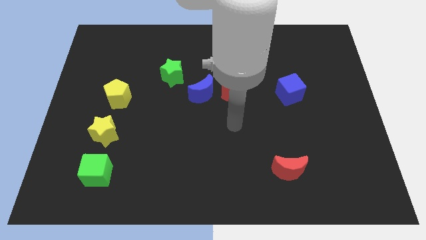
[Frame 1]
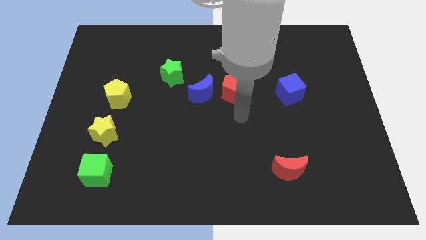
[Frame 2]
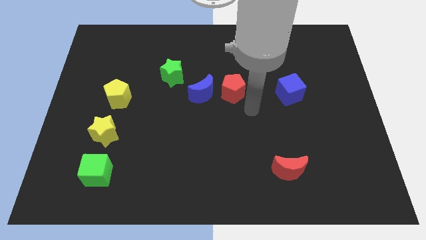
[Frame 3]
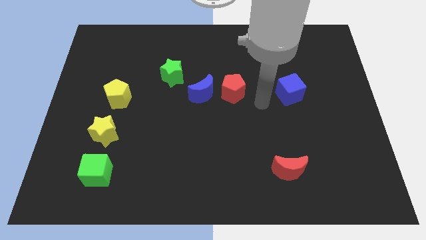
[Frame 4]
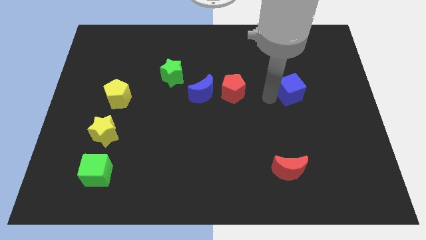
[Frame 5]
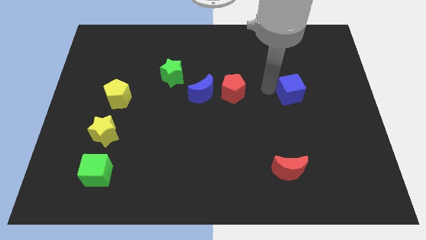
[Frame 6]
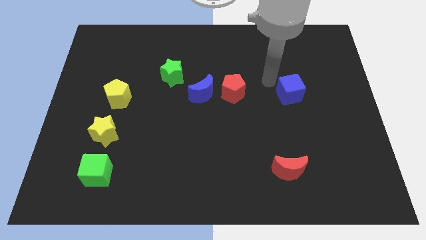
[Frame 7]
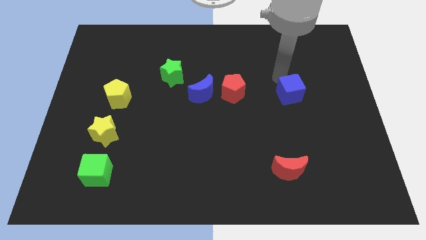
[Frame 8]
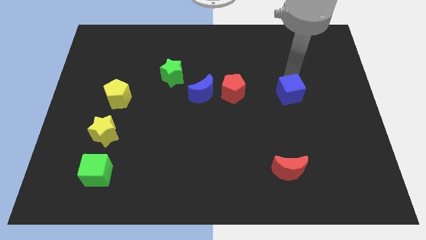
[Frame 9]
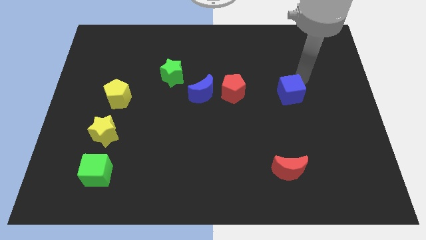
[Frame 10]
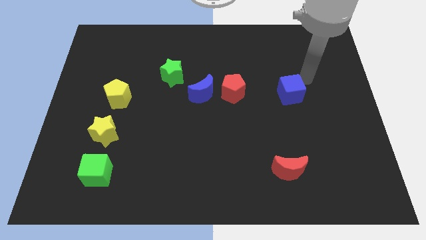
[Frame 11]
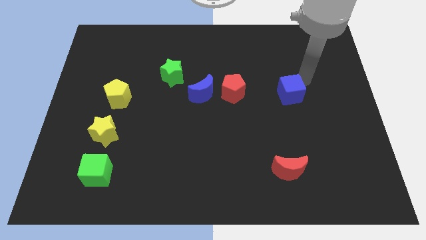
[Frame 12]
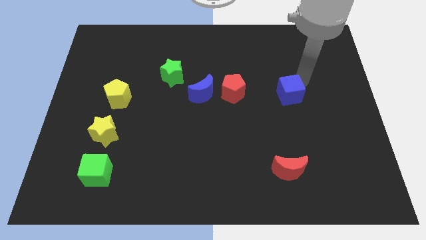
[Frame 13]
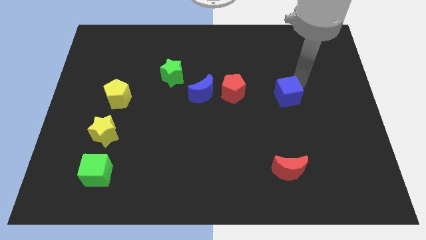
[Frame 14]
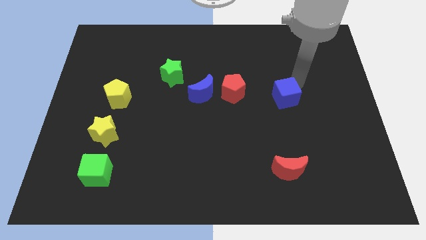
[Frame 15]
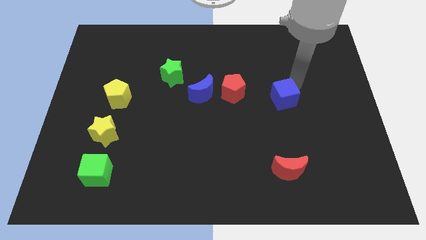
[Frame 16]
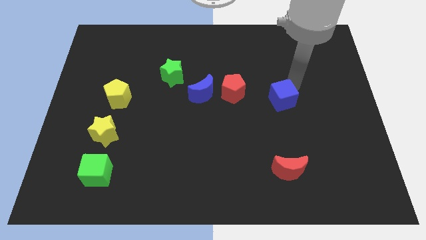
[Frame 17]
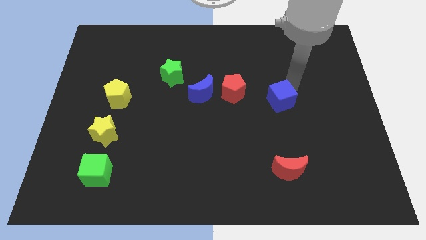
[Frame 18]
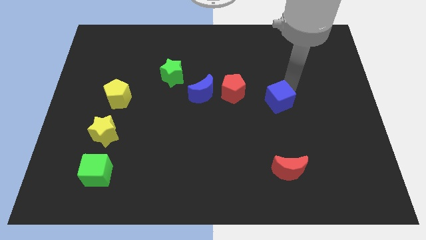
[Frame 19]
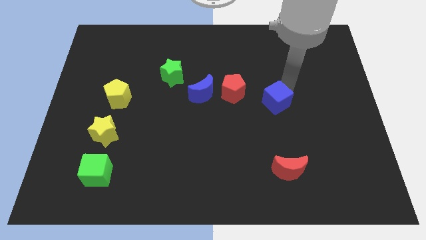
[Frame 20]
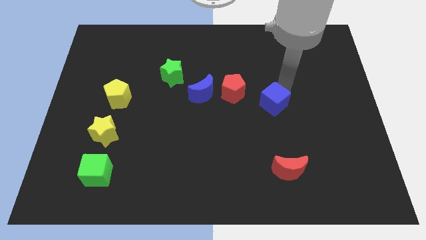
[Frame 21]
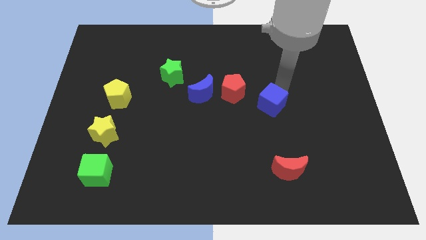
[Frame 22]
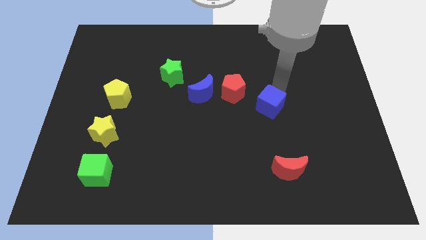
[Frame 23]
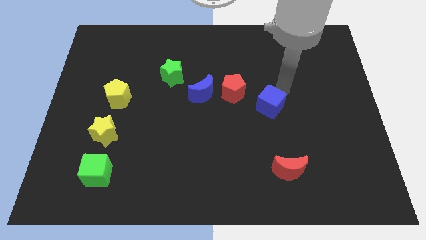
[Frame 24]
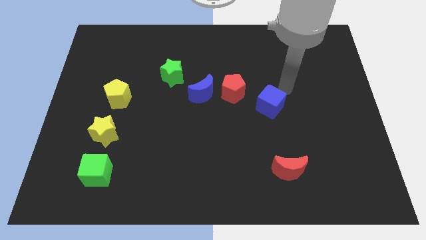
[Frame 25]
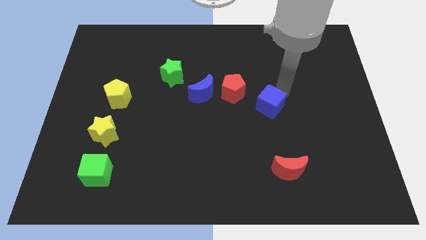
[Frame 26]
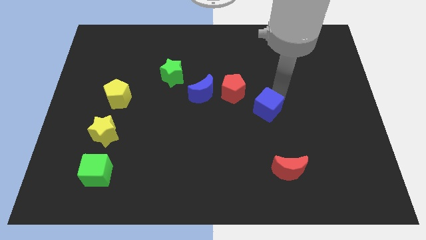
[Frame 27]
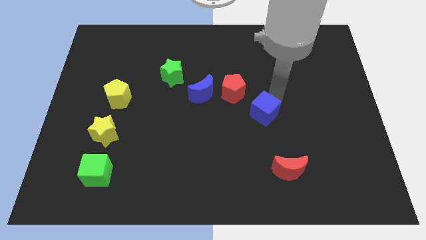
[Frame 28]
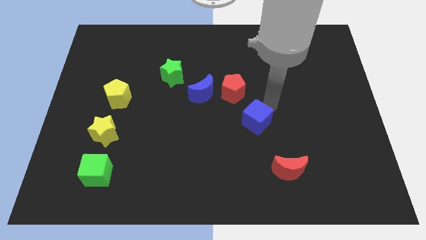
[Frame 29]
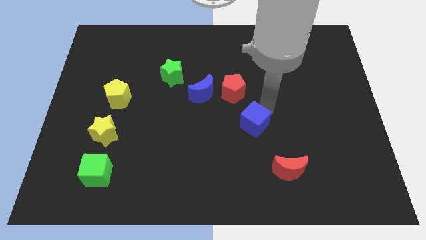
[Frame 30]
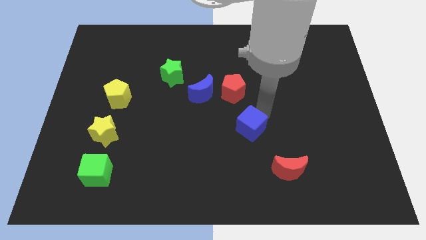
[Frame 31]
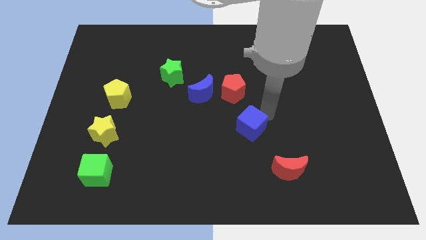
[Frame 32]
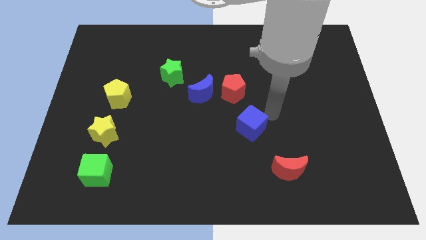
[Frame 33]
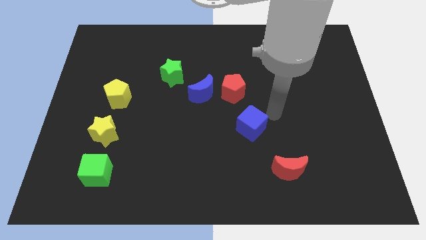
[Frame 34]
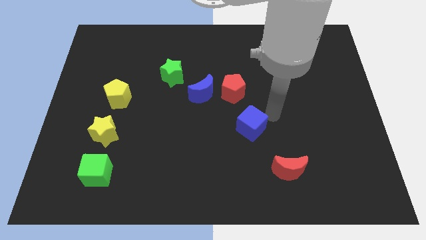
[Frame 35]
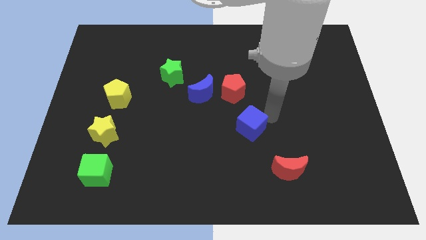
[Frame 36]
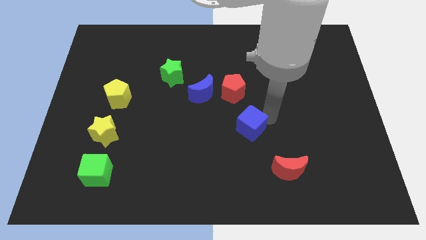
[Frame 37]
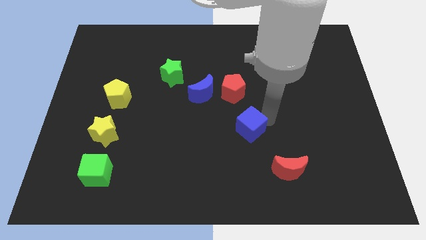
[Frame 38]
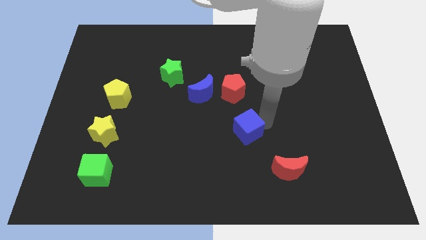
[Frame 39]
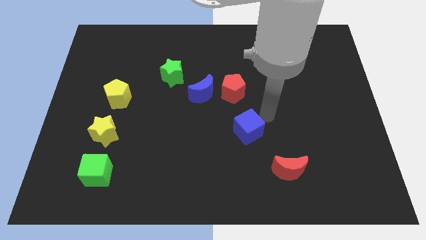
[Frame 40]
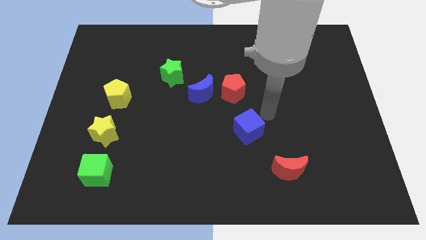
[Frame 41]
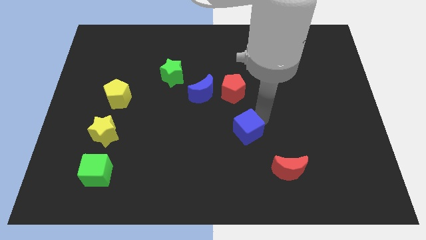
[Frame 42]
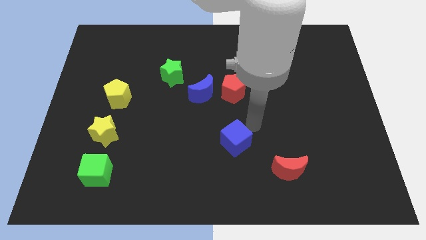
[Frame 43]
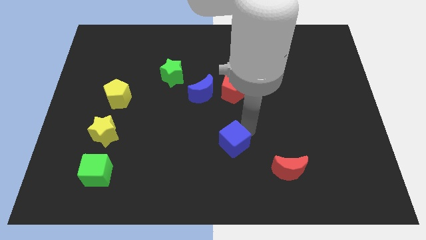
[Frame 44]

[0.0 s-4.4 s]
move the blue cube downwards and then left

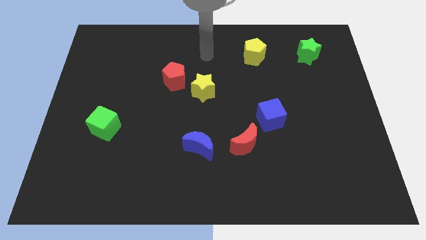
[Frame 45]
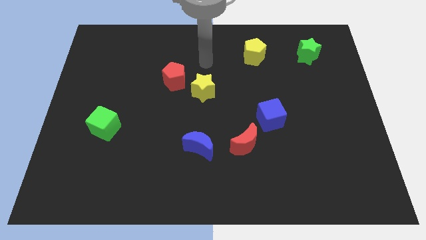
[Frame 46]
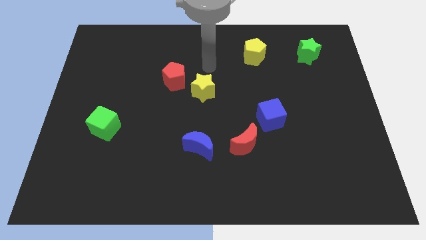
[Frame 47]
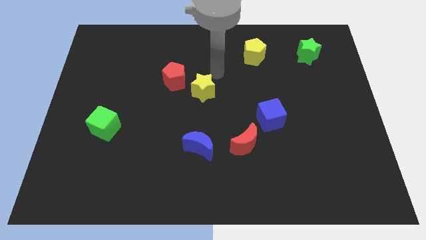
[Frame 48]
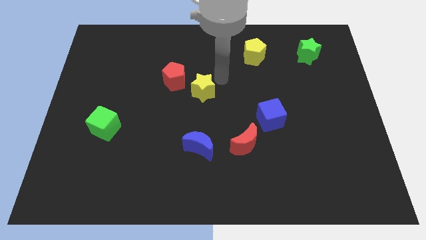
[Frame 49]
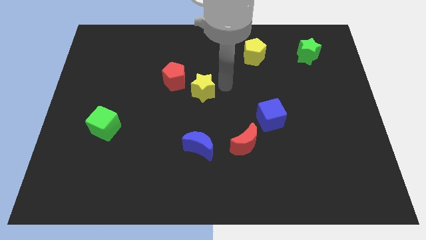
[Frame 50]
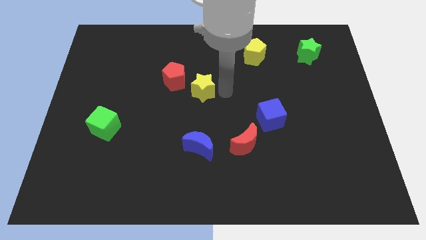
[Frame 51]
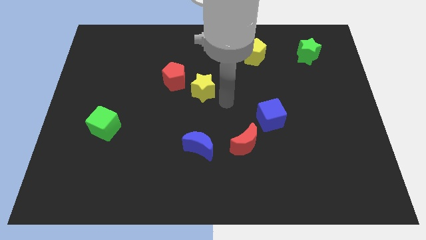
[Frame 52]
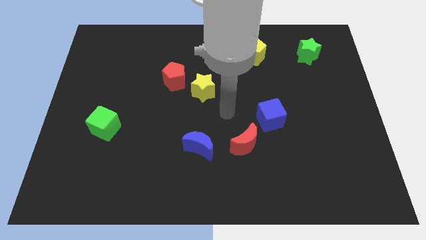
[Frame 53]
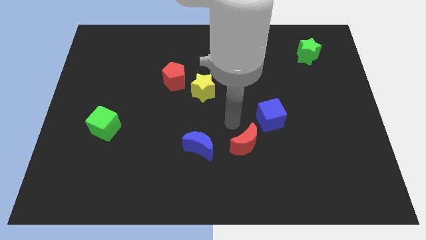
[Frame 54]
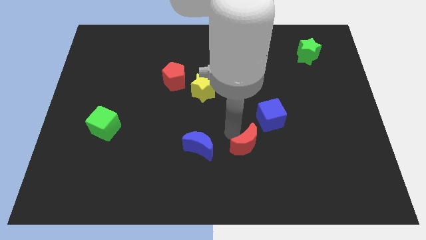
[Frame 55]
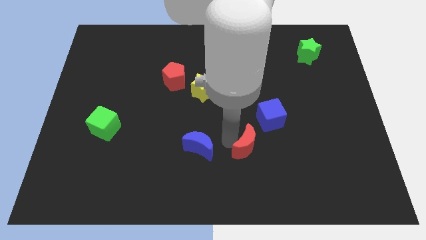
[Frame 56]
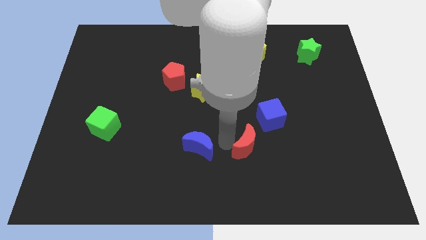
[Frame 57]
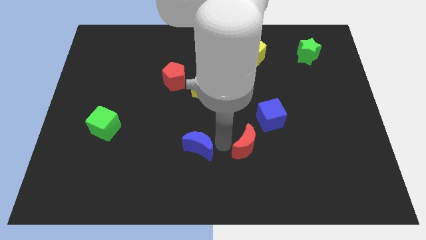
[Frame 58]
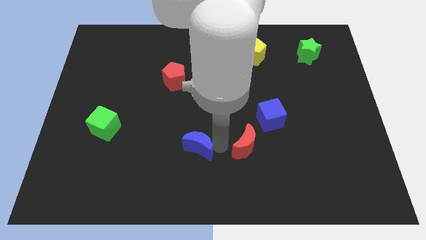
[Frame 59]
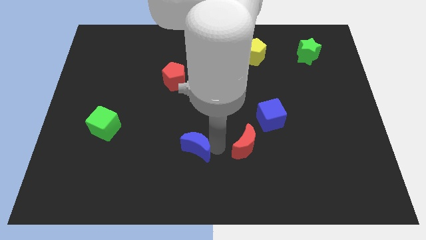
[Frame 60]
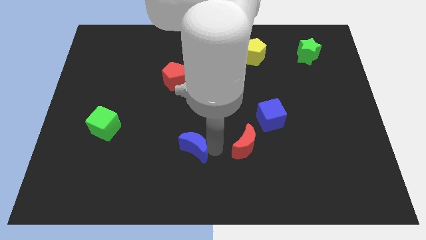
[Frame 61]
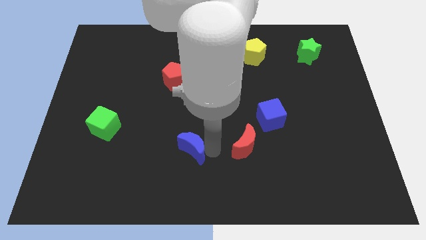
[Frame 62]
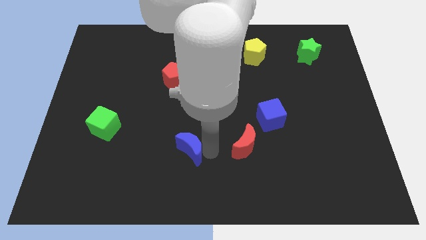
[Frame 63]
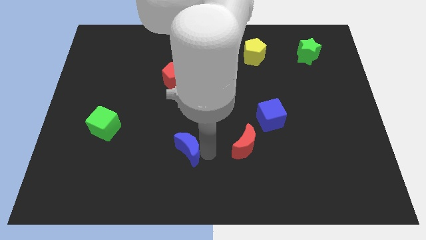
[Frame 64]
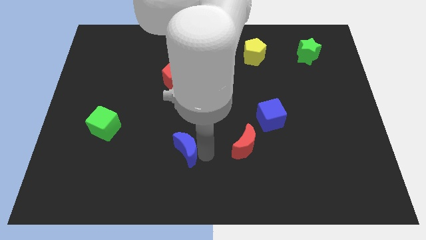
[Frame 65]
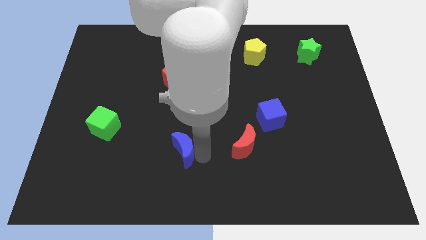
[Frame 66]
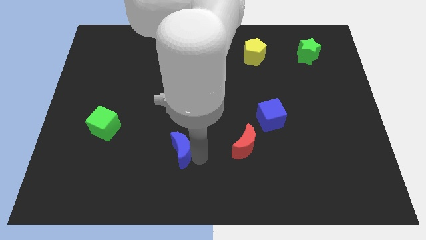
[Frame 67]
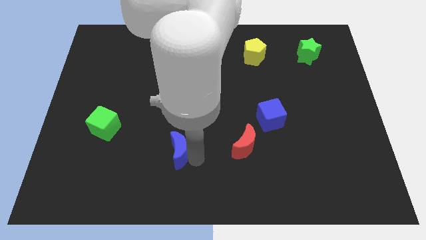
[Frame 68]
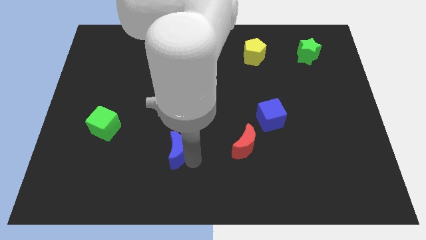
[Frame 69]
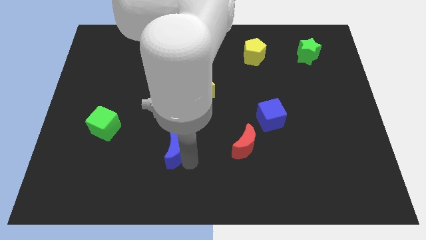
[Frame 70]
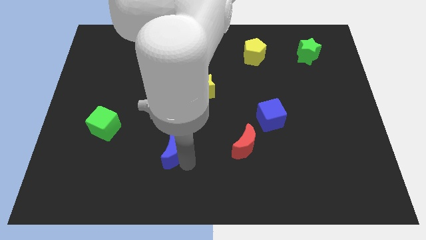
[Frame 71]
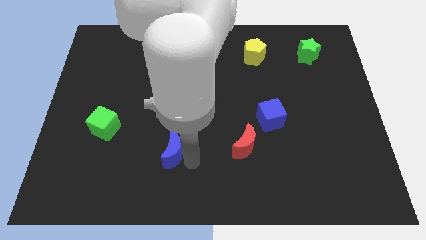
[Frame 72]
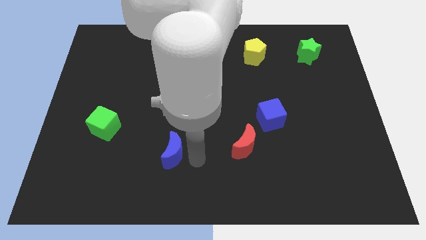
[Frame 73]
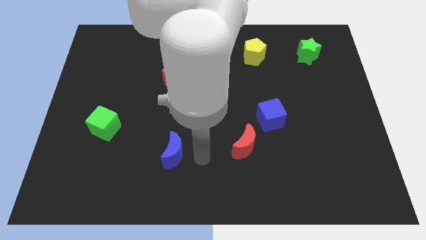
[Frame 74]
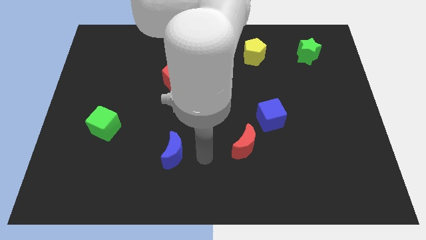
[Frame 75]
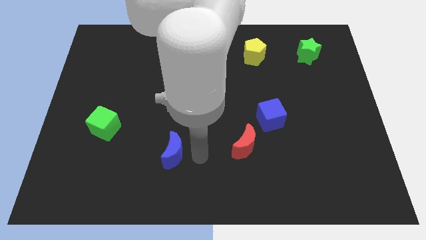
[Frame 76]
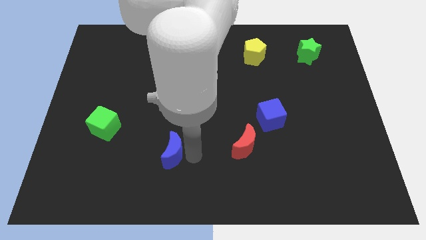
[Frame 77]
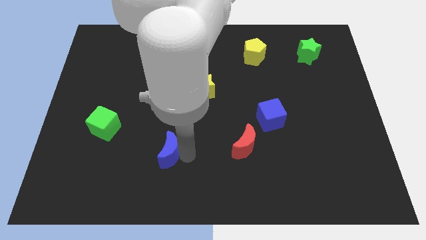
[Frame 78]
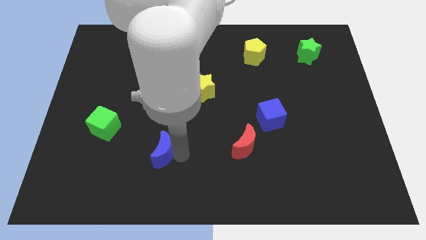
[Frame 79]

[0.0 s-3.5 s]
slightly slide the blue moon left
